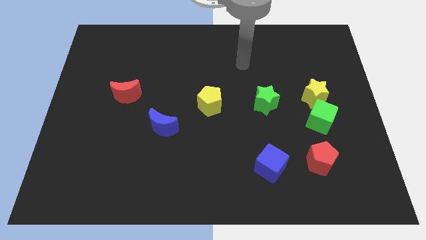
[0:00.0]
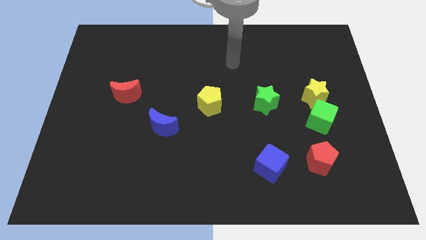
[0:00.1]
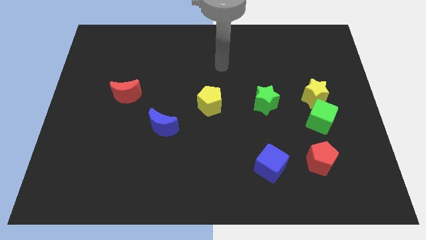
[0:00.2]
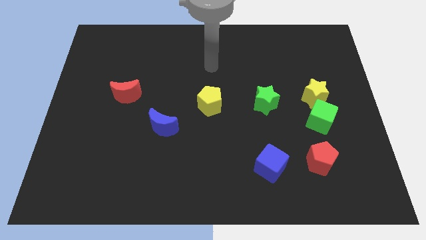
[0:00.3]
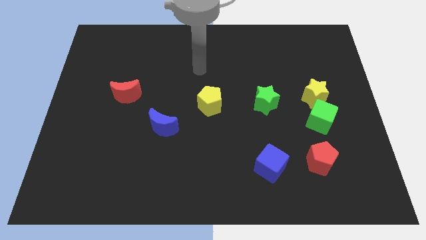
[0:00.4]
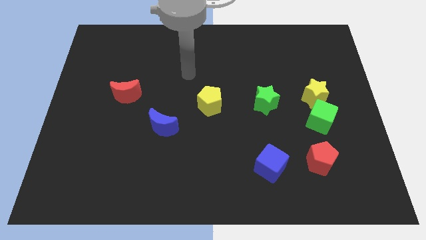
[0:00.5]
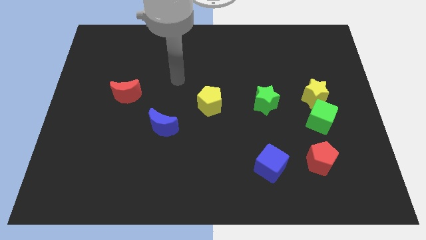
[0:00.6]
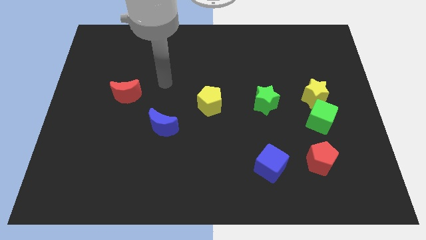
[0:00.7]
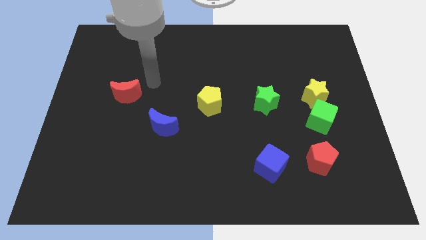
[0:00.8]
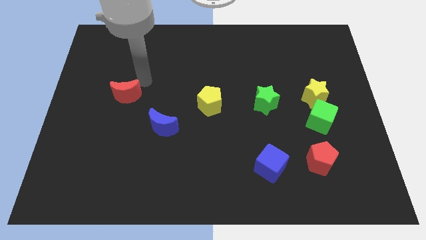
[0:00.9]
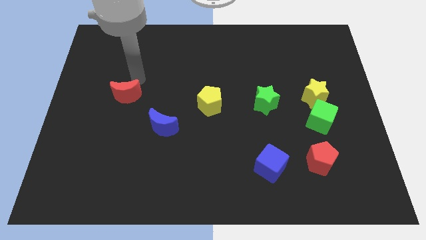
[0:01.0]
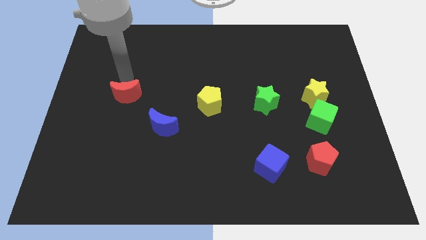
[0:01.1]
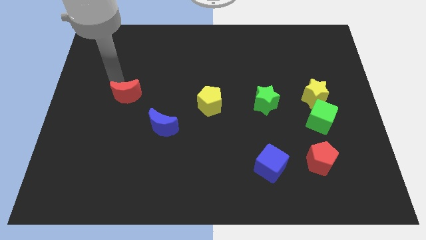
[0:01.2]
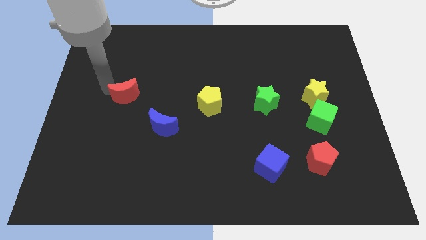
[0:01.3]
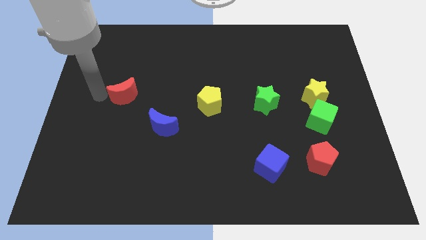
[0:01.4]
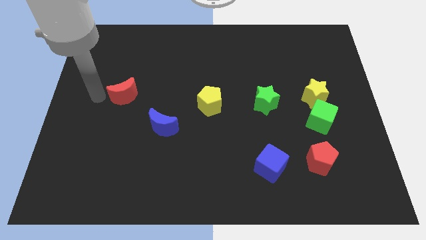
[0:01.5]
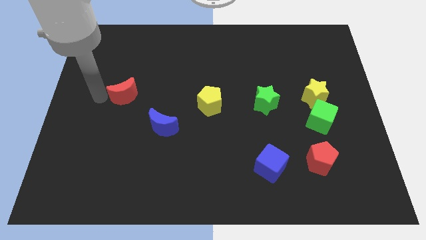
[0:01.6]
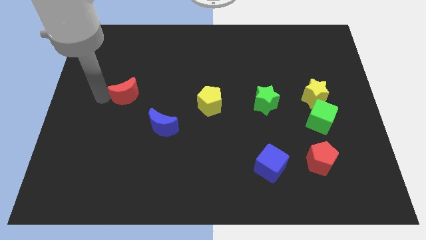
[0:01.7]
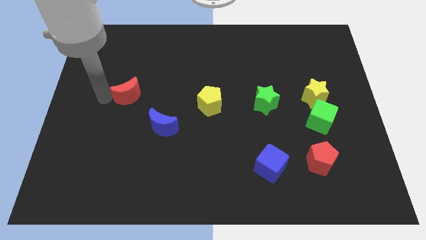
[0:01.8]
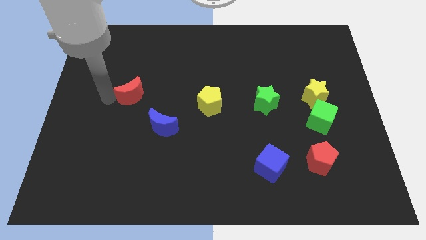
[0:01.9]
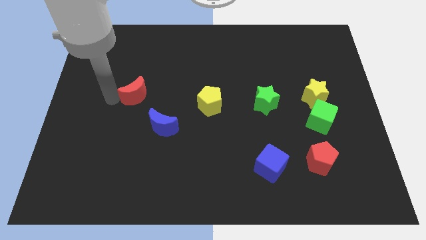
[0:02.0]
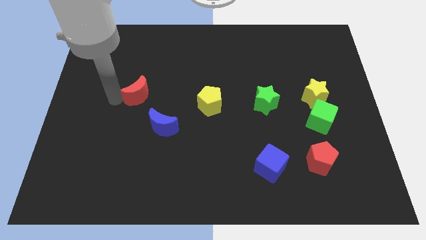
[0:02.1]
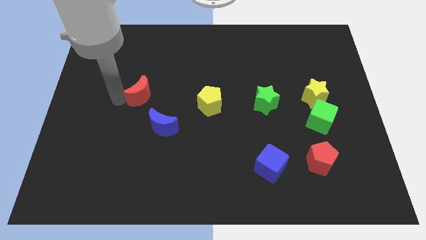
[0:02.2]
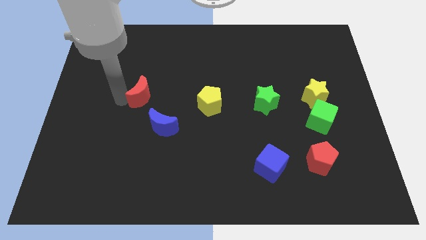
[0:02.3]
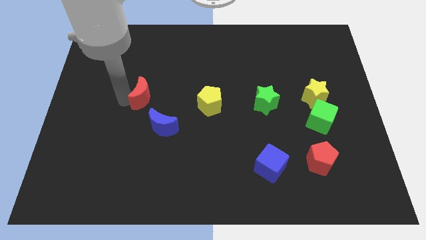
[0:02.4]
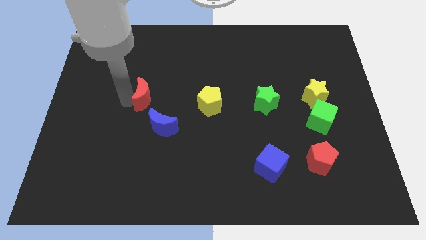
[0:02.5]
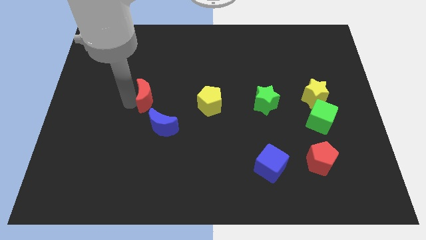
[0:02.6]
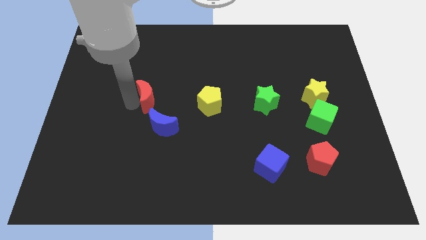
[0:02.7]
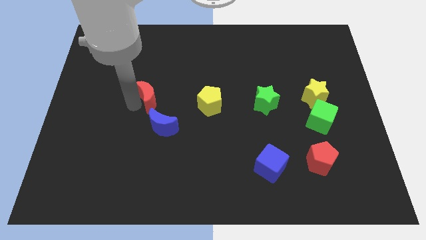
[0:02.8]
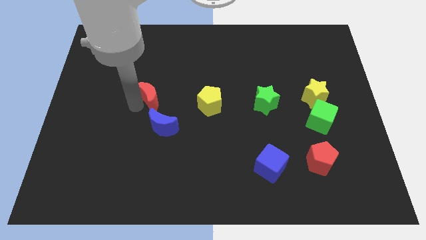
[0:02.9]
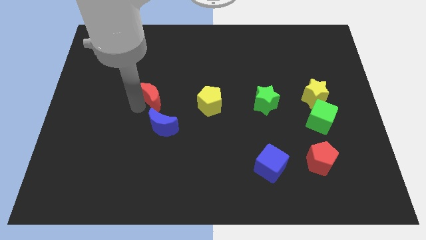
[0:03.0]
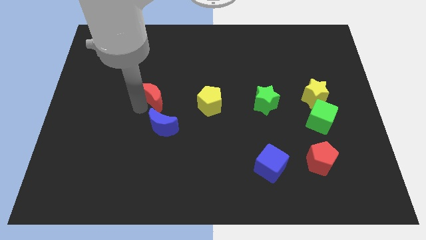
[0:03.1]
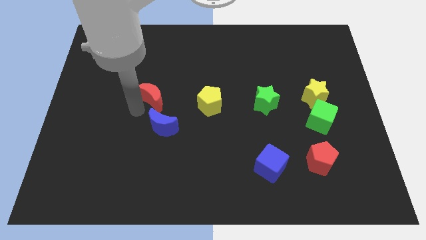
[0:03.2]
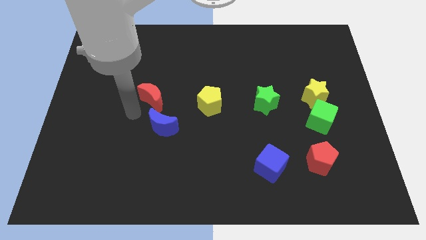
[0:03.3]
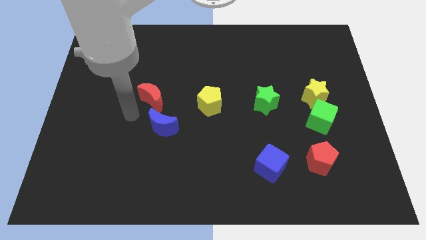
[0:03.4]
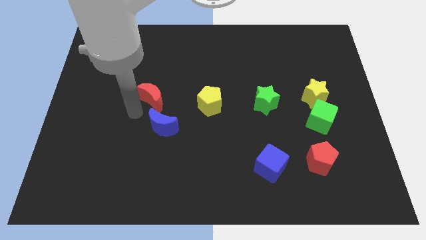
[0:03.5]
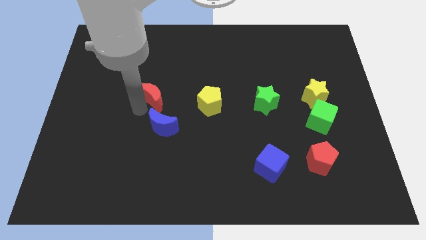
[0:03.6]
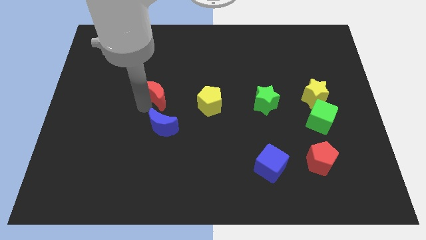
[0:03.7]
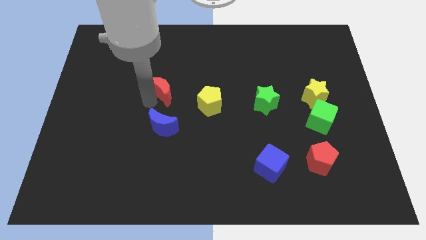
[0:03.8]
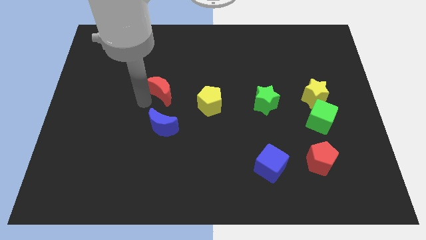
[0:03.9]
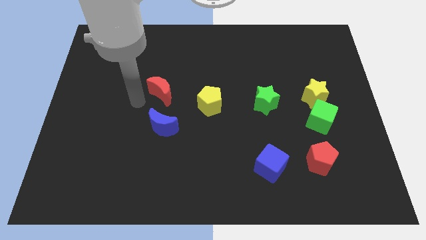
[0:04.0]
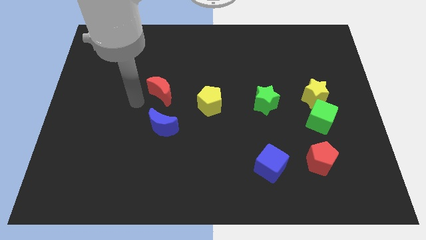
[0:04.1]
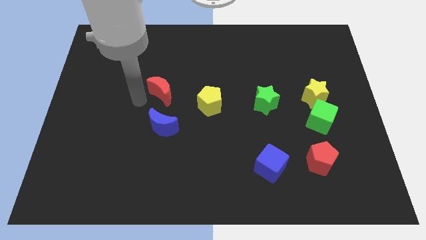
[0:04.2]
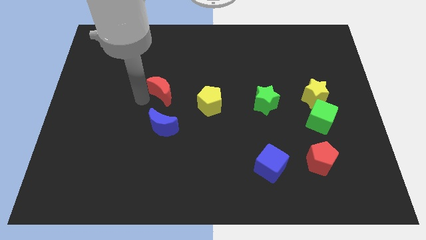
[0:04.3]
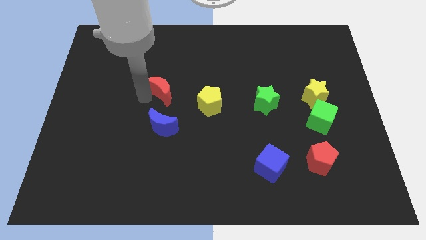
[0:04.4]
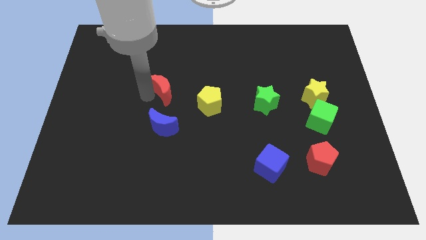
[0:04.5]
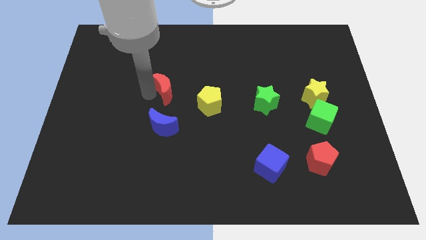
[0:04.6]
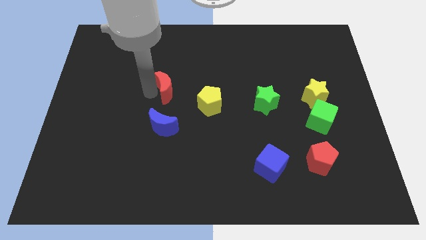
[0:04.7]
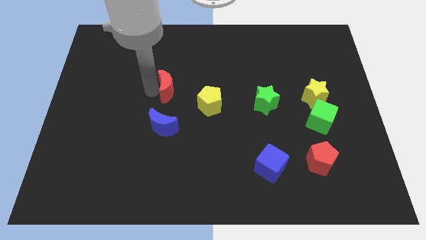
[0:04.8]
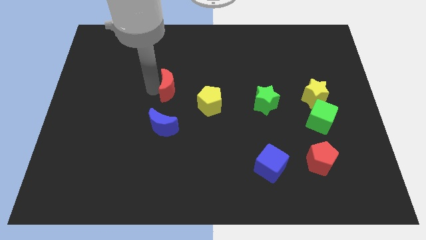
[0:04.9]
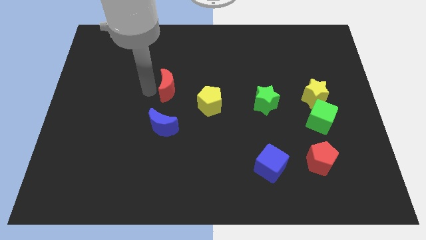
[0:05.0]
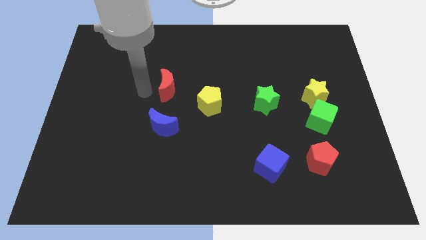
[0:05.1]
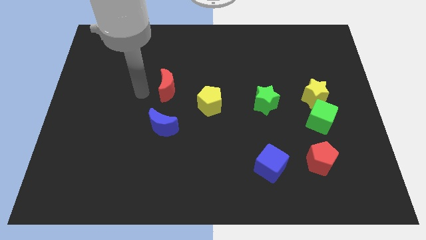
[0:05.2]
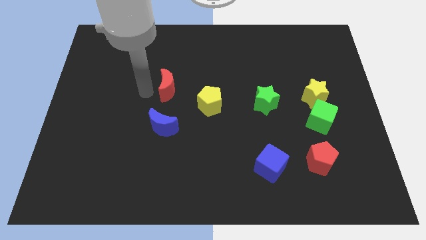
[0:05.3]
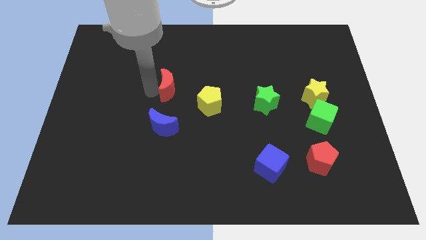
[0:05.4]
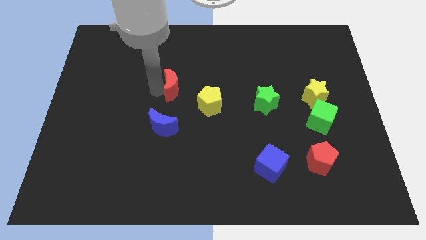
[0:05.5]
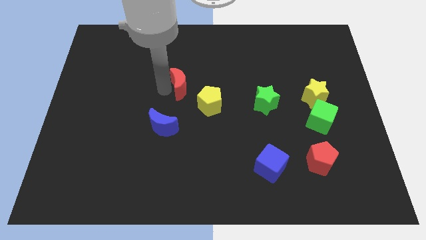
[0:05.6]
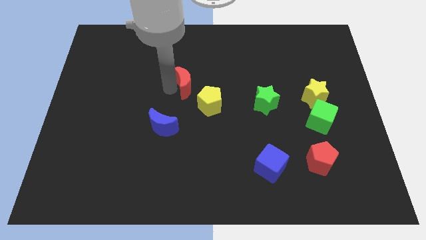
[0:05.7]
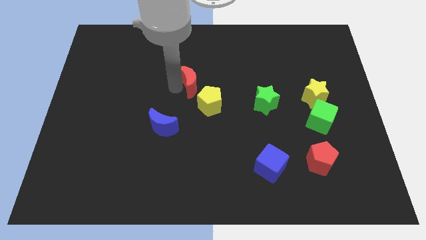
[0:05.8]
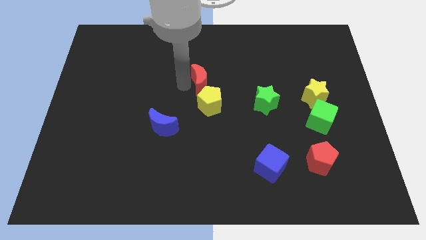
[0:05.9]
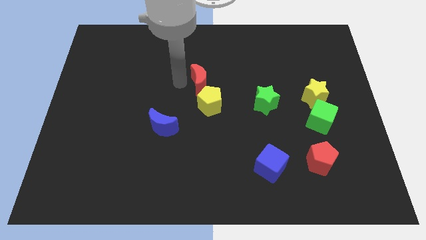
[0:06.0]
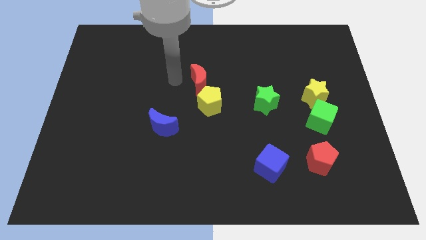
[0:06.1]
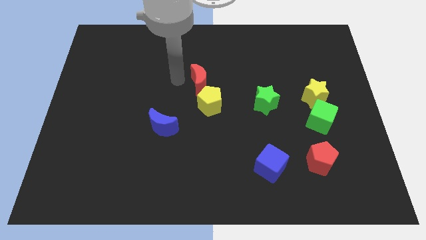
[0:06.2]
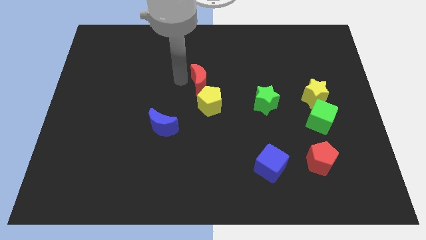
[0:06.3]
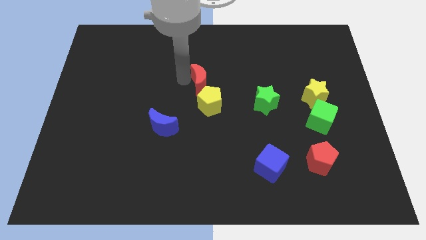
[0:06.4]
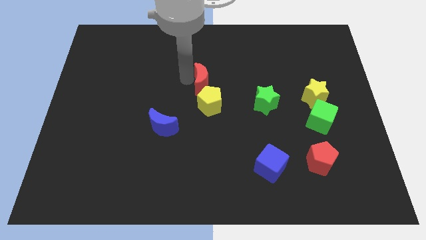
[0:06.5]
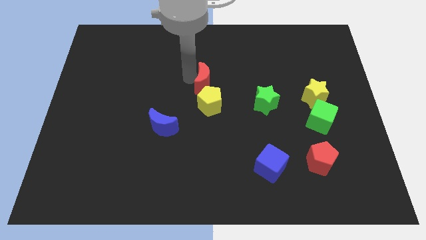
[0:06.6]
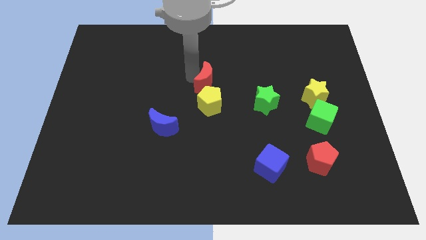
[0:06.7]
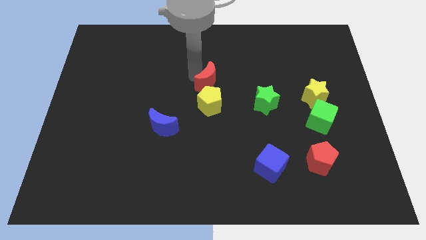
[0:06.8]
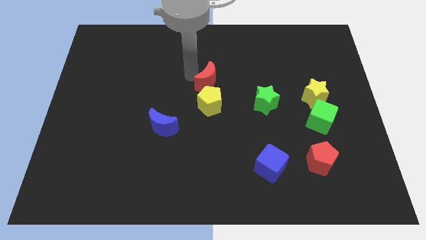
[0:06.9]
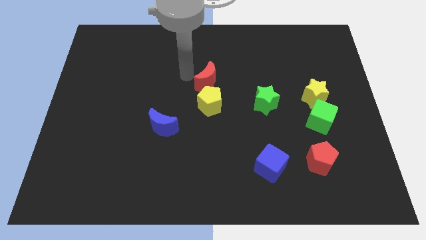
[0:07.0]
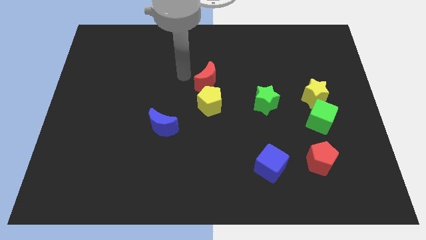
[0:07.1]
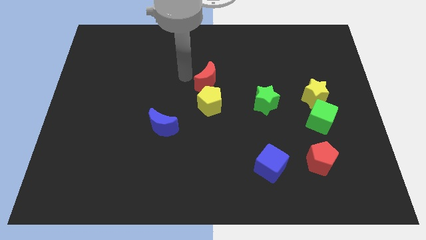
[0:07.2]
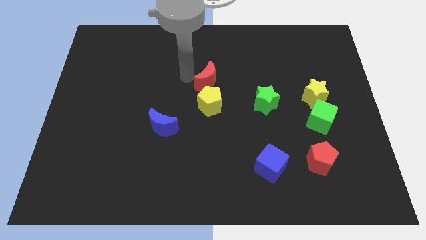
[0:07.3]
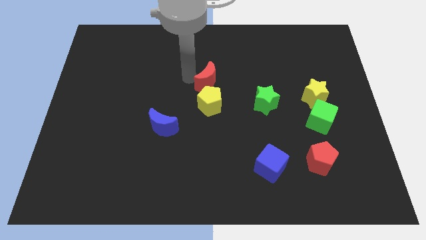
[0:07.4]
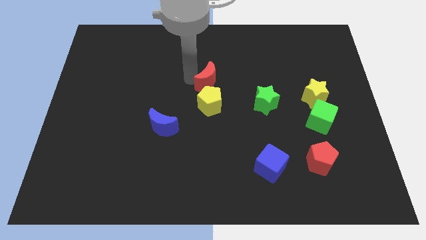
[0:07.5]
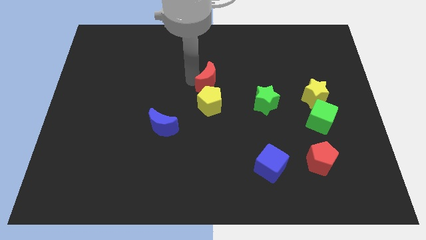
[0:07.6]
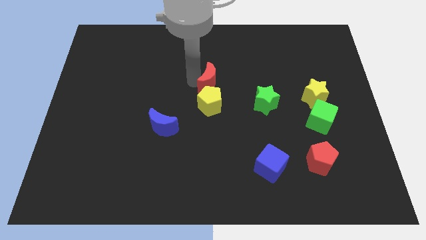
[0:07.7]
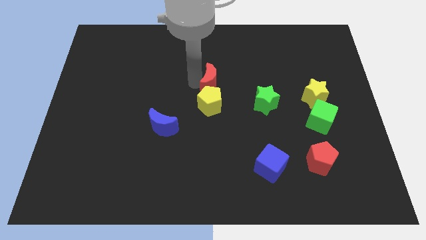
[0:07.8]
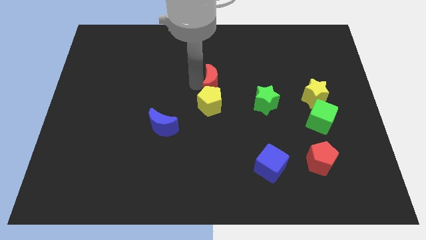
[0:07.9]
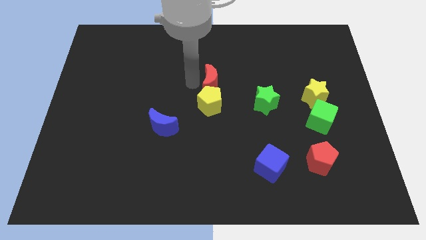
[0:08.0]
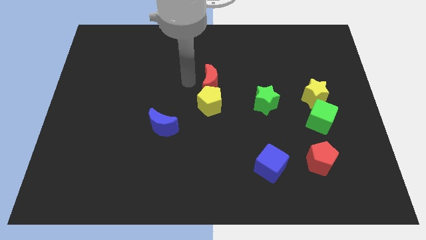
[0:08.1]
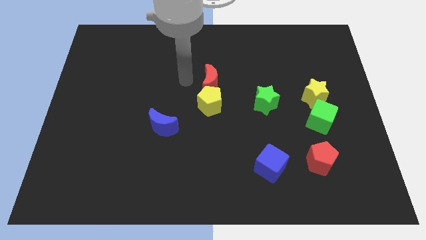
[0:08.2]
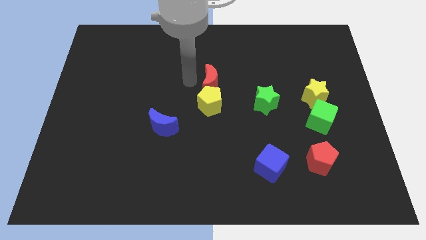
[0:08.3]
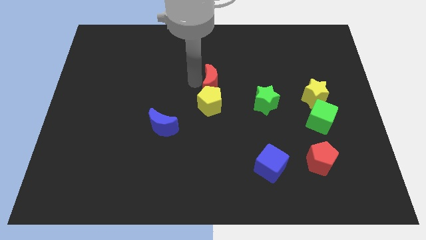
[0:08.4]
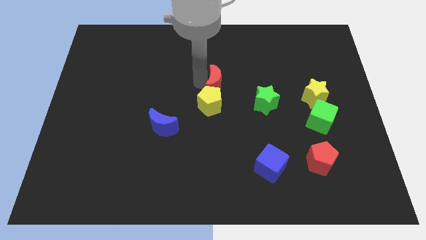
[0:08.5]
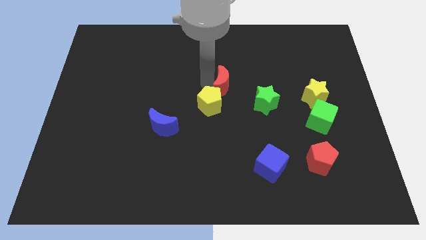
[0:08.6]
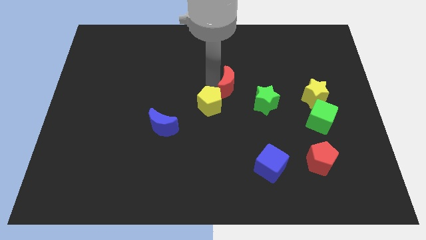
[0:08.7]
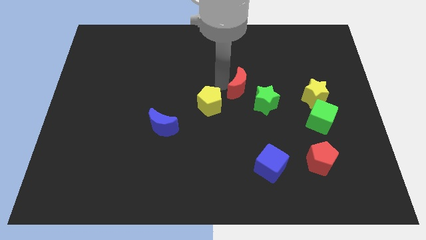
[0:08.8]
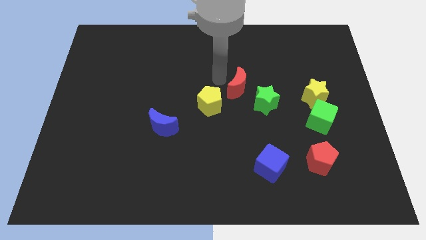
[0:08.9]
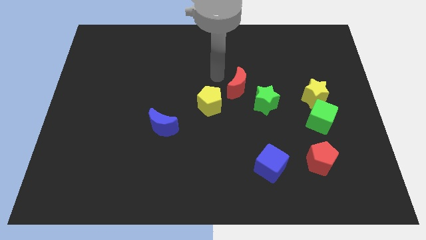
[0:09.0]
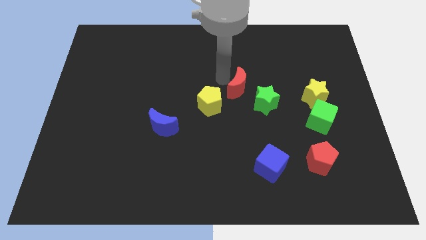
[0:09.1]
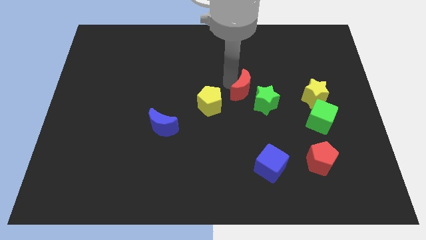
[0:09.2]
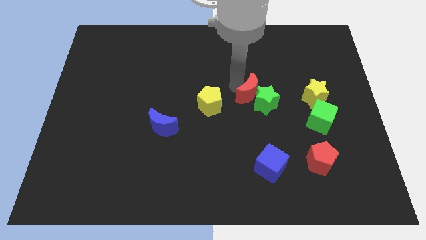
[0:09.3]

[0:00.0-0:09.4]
slide the red moon to the green star
